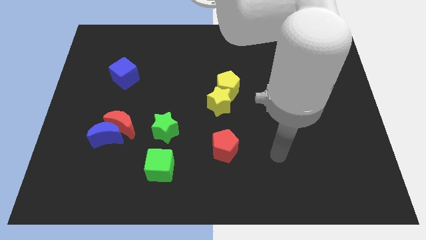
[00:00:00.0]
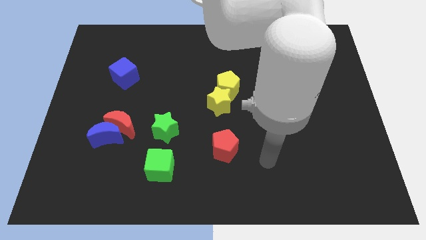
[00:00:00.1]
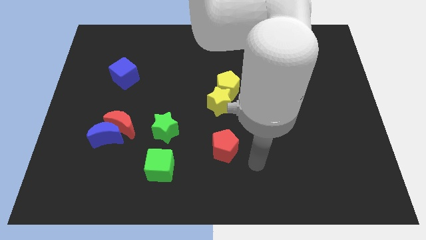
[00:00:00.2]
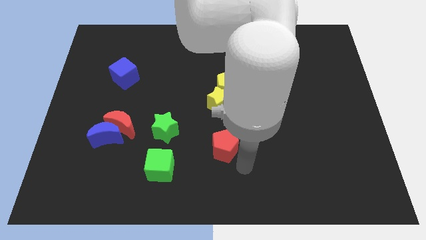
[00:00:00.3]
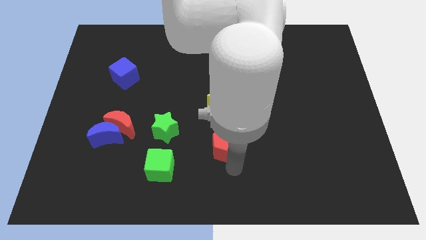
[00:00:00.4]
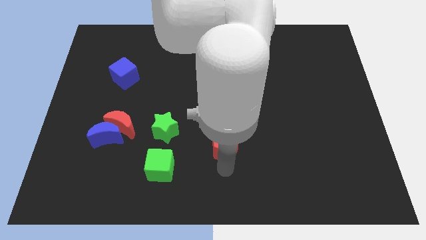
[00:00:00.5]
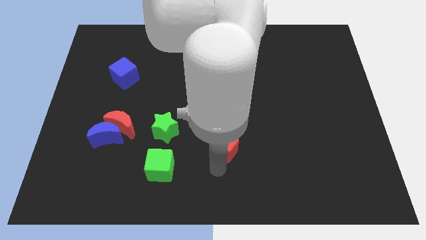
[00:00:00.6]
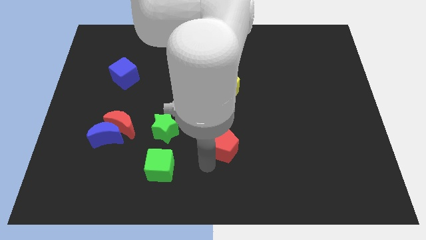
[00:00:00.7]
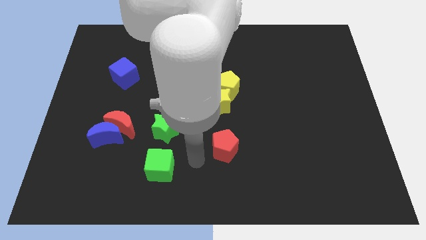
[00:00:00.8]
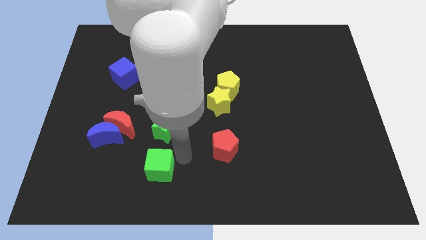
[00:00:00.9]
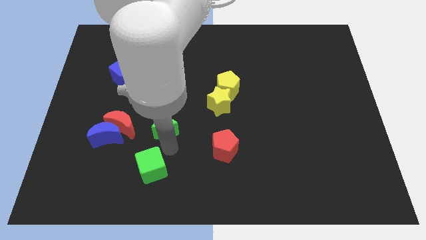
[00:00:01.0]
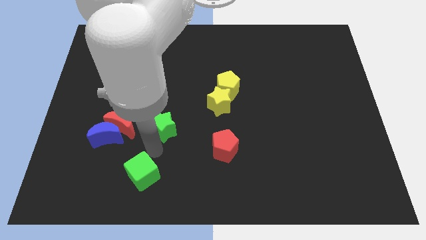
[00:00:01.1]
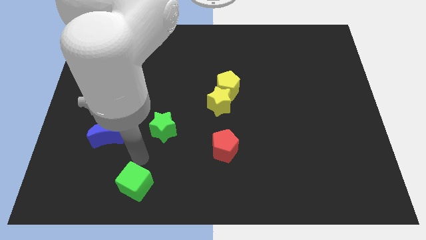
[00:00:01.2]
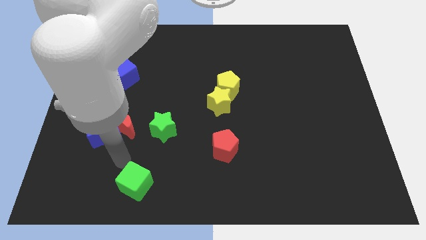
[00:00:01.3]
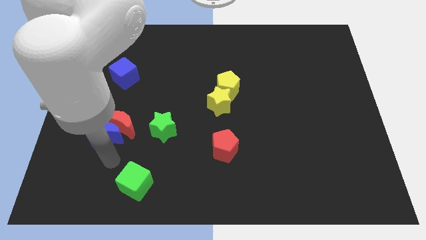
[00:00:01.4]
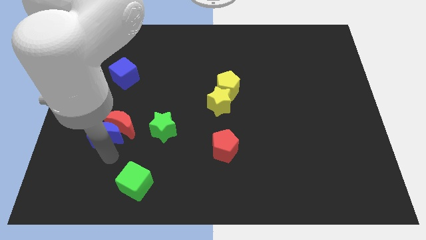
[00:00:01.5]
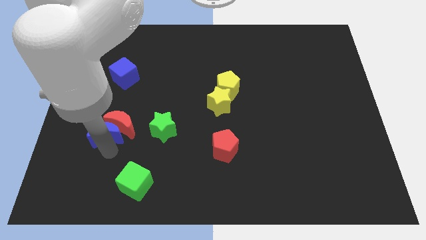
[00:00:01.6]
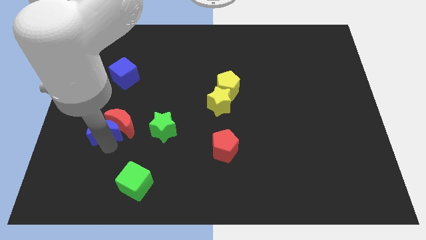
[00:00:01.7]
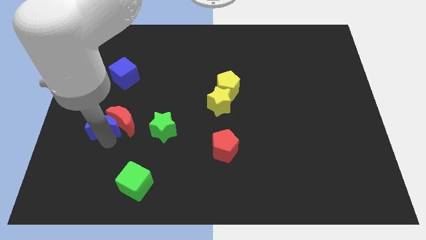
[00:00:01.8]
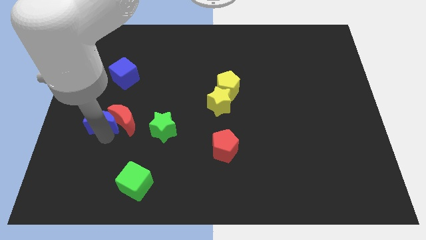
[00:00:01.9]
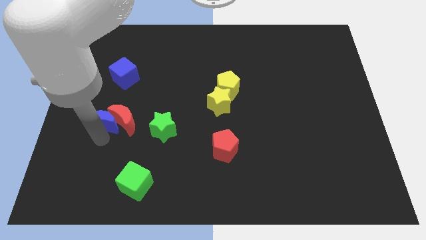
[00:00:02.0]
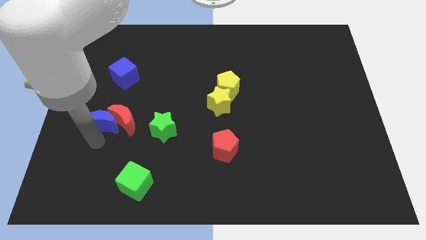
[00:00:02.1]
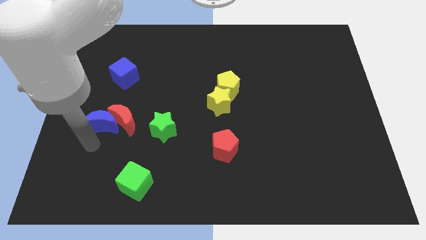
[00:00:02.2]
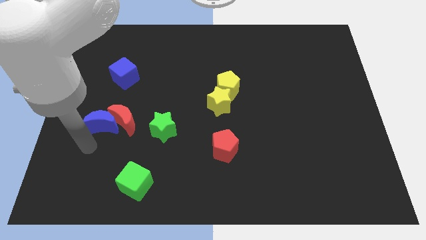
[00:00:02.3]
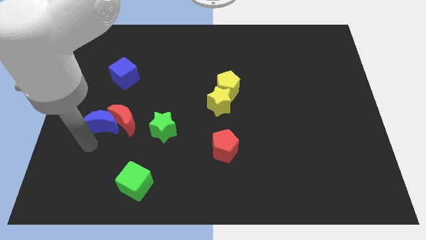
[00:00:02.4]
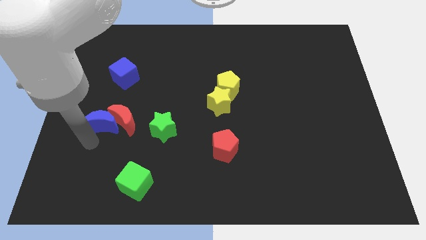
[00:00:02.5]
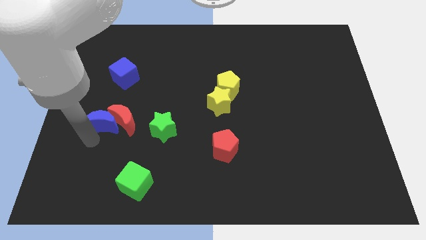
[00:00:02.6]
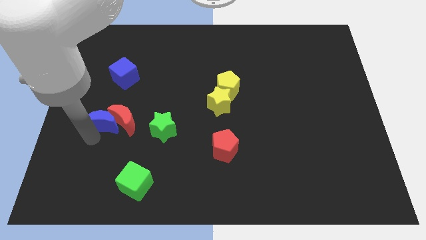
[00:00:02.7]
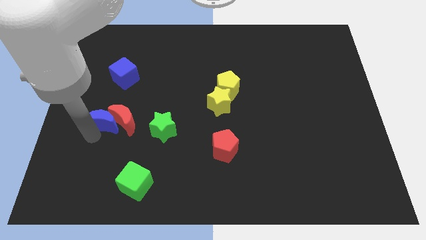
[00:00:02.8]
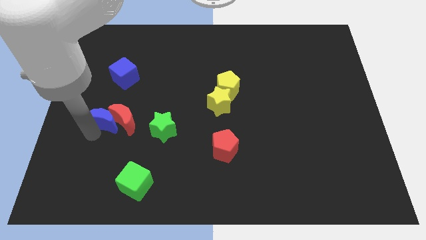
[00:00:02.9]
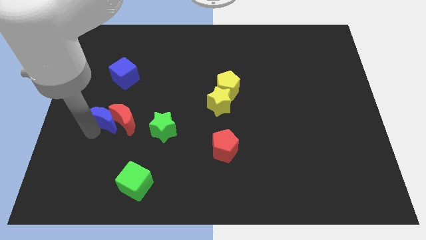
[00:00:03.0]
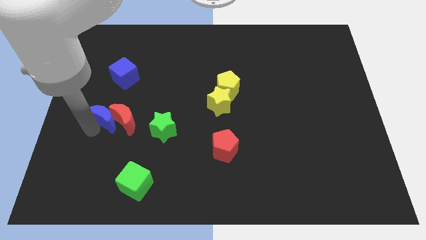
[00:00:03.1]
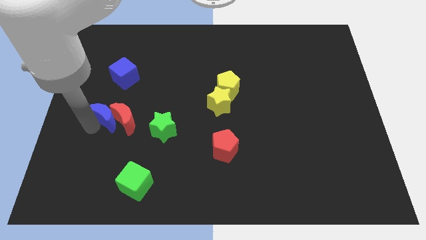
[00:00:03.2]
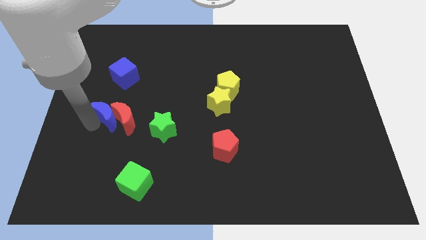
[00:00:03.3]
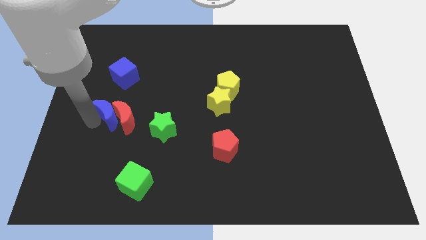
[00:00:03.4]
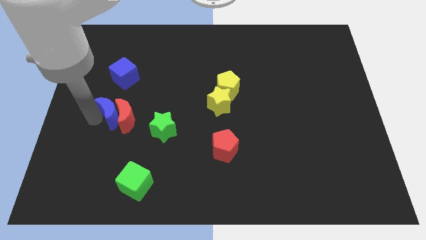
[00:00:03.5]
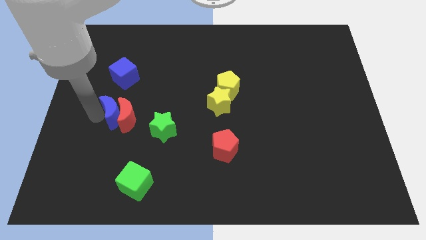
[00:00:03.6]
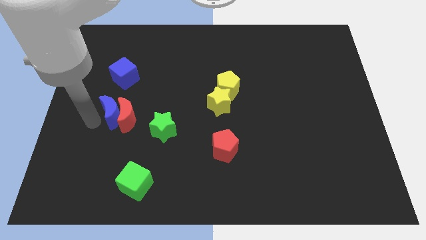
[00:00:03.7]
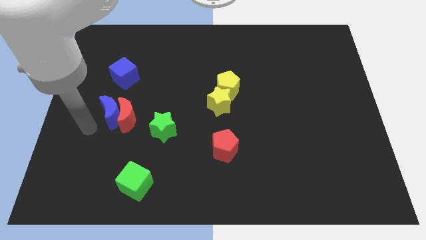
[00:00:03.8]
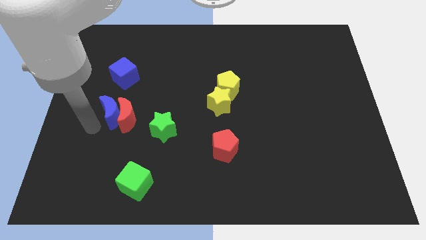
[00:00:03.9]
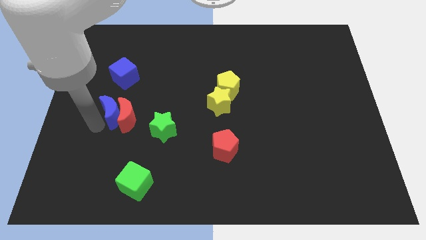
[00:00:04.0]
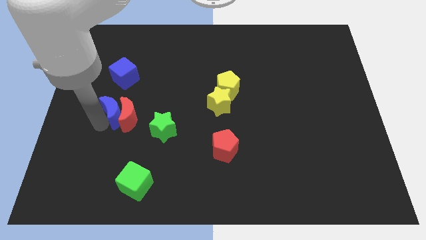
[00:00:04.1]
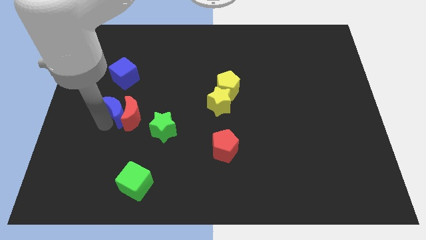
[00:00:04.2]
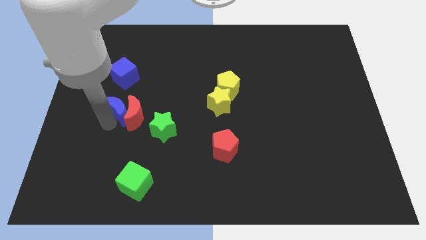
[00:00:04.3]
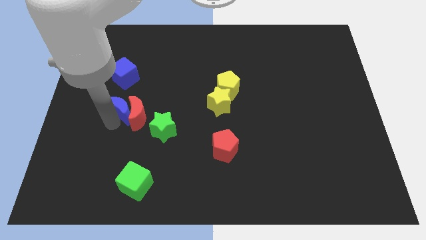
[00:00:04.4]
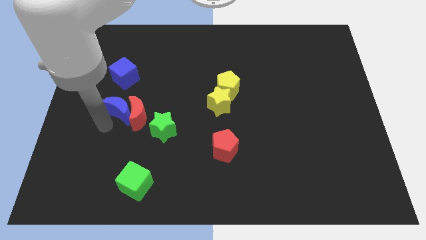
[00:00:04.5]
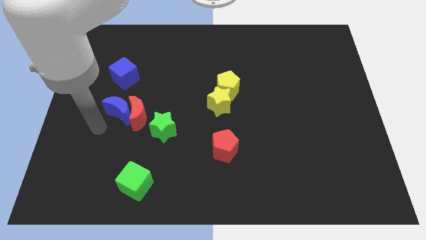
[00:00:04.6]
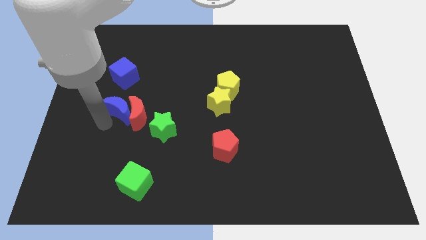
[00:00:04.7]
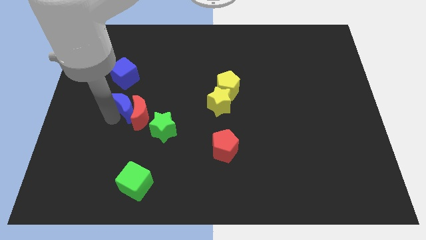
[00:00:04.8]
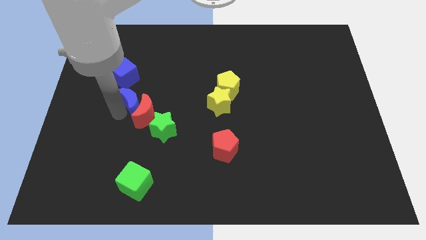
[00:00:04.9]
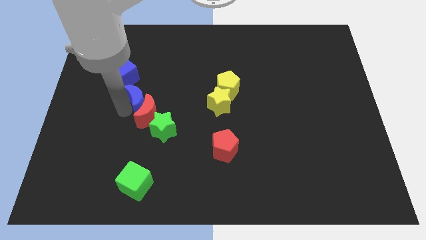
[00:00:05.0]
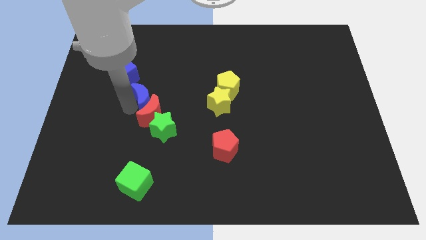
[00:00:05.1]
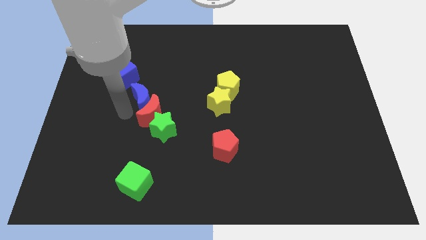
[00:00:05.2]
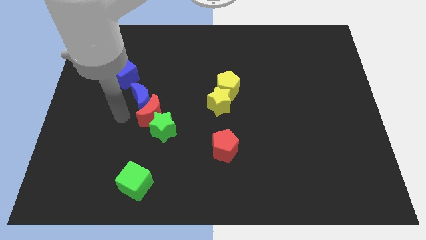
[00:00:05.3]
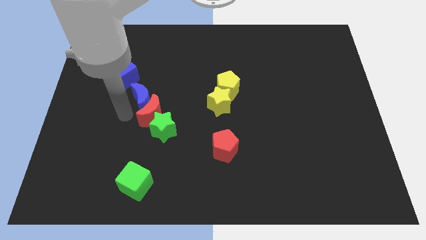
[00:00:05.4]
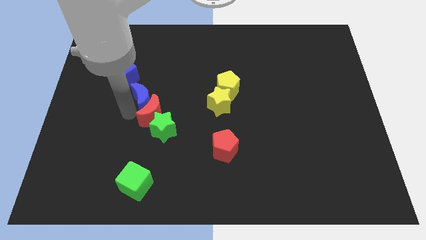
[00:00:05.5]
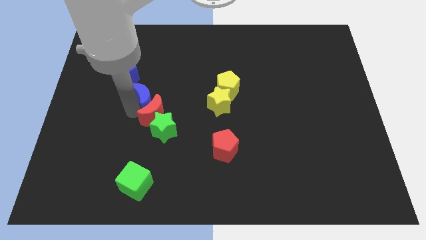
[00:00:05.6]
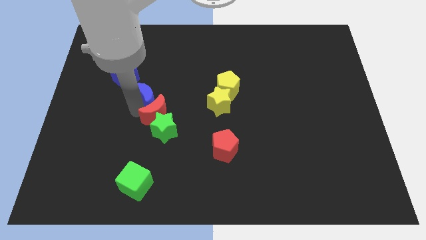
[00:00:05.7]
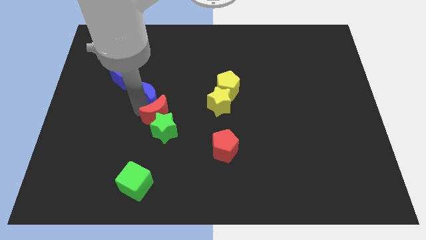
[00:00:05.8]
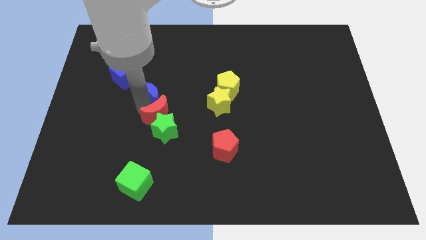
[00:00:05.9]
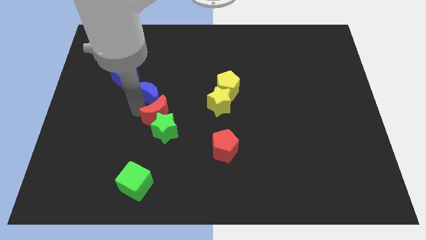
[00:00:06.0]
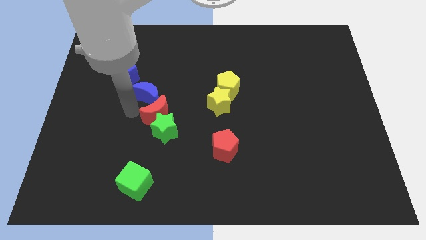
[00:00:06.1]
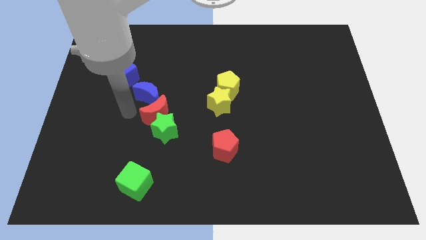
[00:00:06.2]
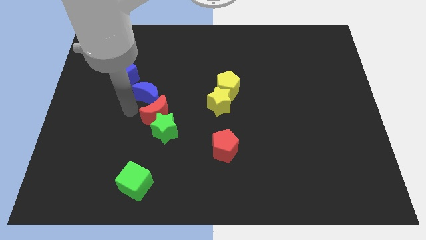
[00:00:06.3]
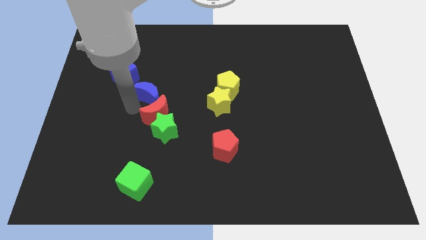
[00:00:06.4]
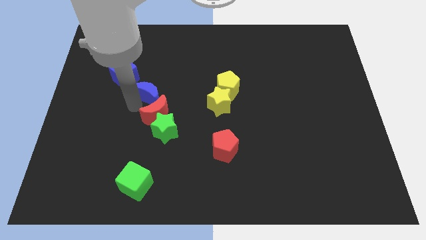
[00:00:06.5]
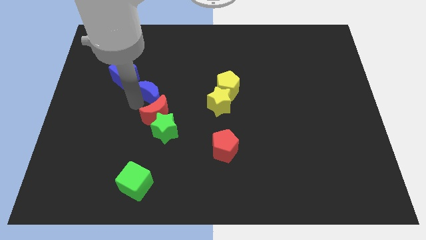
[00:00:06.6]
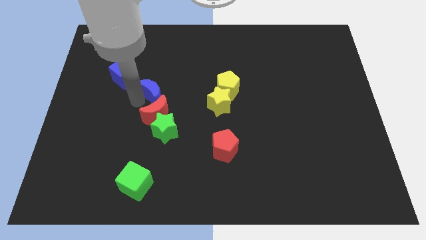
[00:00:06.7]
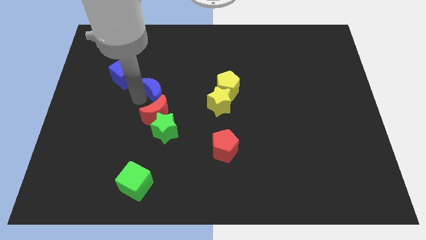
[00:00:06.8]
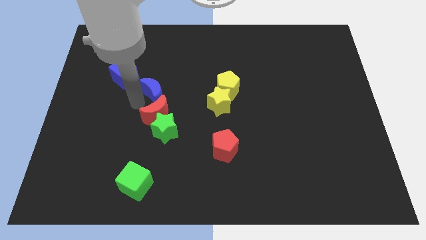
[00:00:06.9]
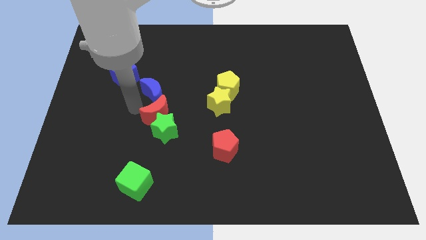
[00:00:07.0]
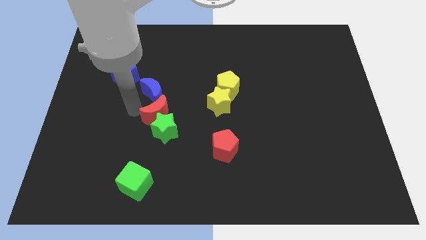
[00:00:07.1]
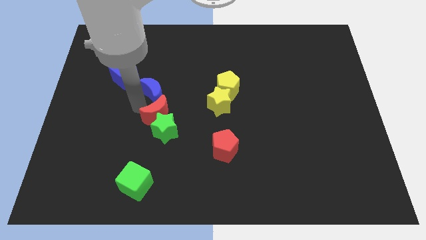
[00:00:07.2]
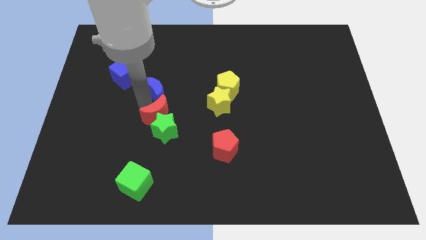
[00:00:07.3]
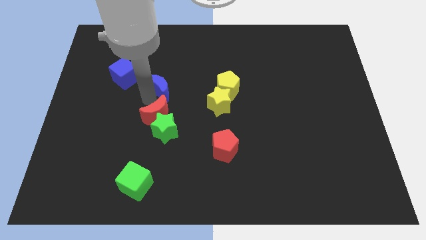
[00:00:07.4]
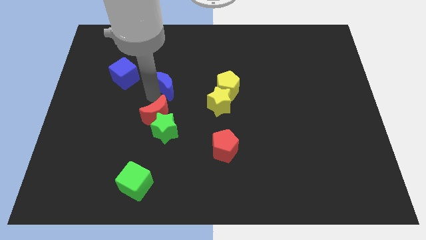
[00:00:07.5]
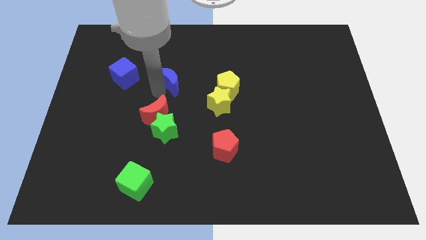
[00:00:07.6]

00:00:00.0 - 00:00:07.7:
slide the blue moon upwards and right

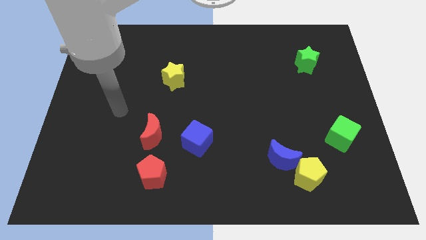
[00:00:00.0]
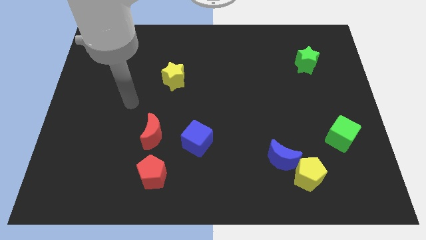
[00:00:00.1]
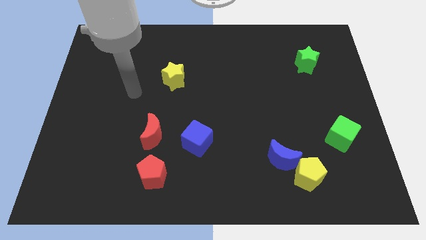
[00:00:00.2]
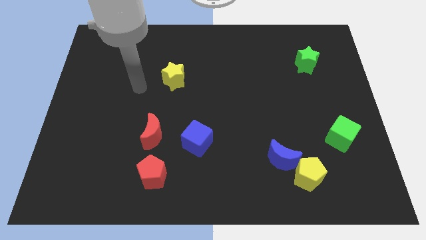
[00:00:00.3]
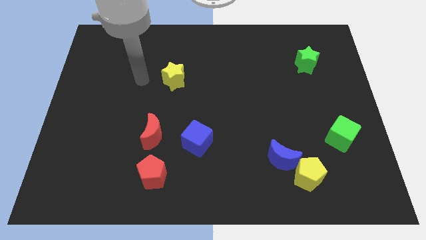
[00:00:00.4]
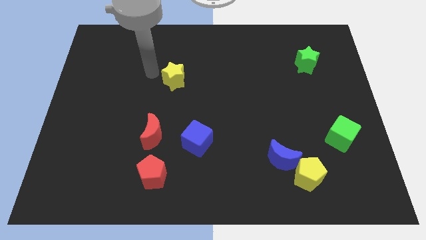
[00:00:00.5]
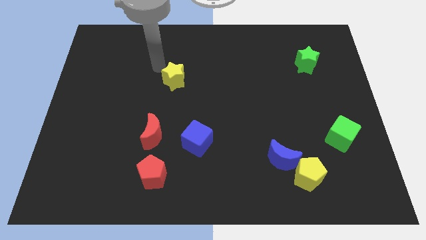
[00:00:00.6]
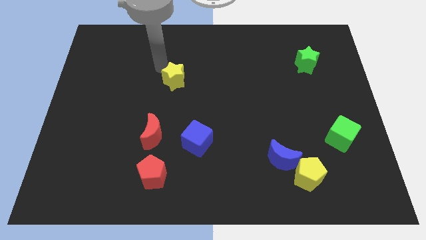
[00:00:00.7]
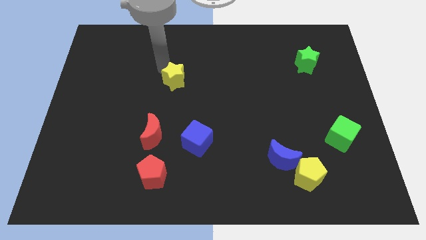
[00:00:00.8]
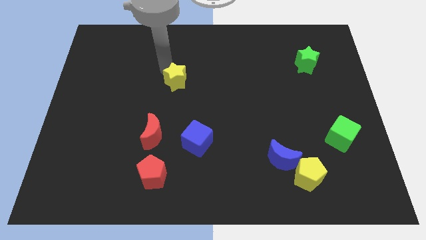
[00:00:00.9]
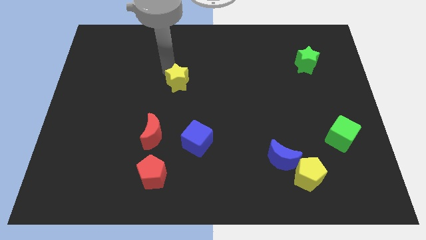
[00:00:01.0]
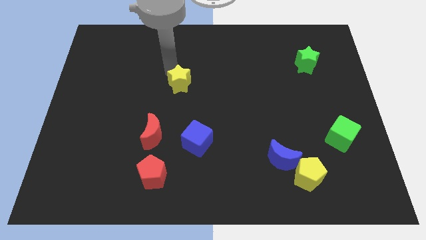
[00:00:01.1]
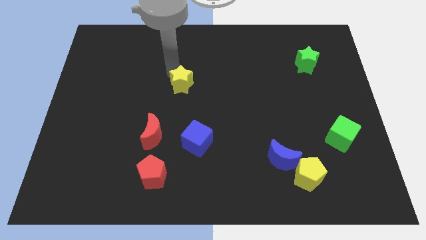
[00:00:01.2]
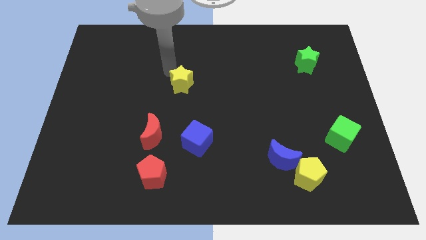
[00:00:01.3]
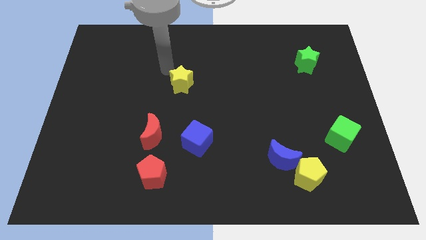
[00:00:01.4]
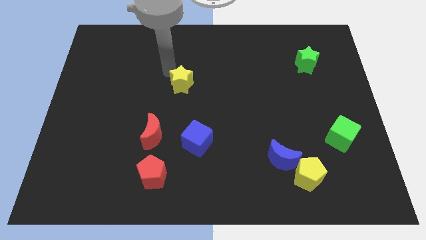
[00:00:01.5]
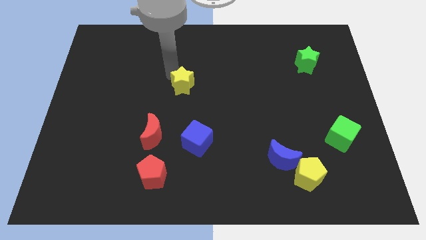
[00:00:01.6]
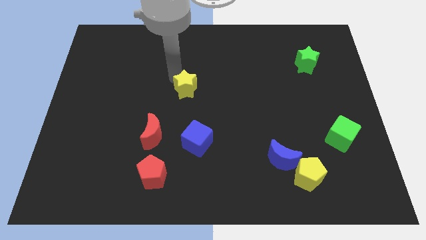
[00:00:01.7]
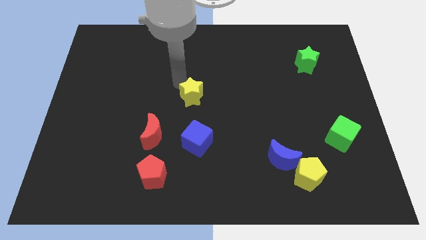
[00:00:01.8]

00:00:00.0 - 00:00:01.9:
slightly push the yellow star downwards and then to the right
